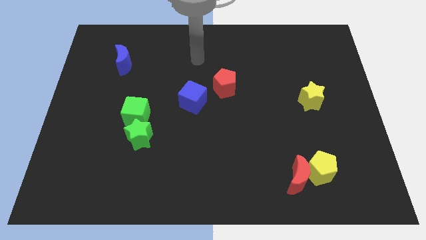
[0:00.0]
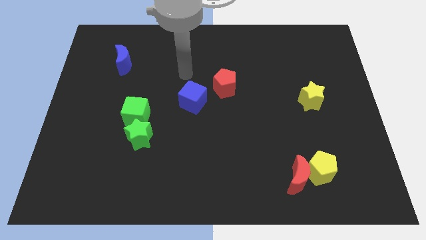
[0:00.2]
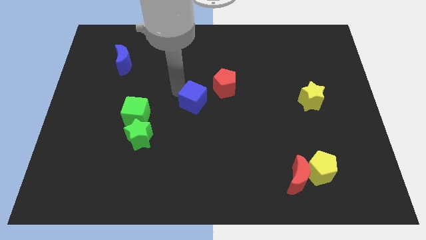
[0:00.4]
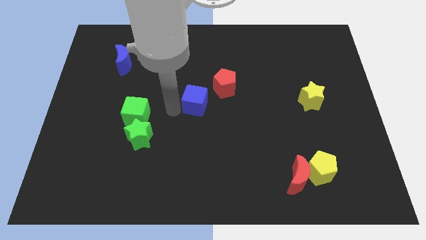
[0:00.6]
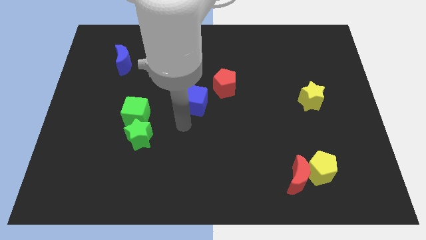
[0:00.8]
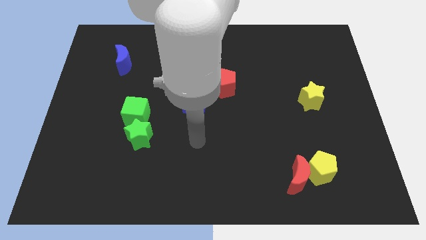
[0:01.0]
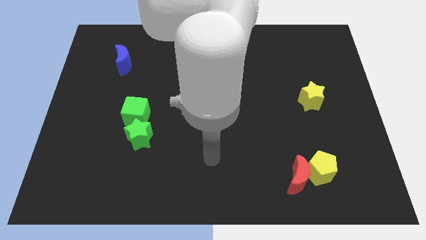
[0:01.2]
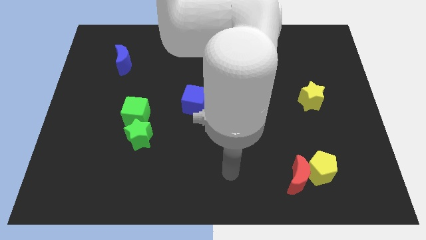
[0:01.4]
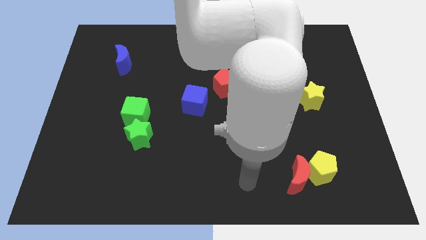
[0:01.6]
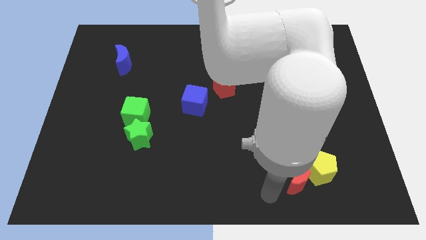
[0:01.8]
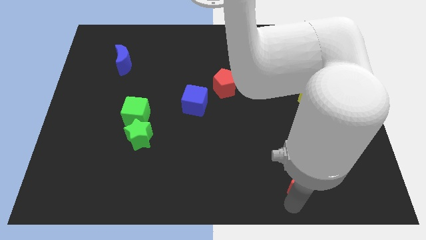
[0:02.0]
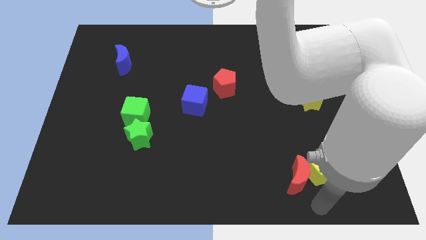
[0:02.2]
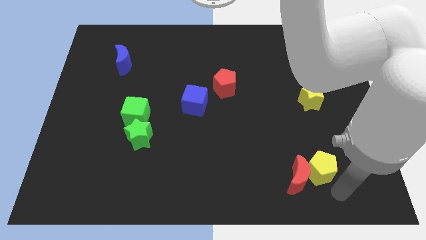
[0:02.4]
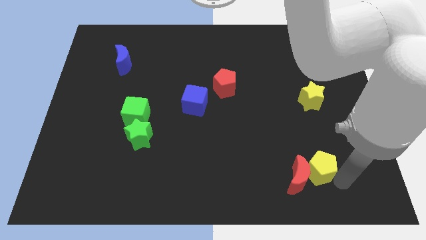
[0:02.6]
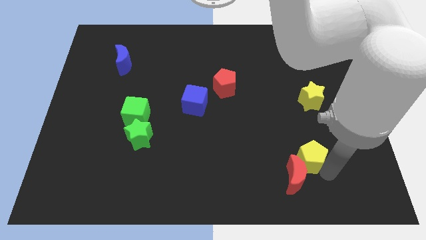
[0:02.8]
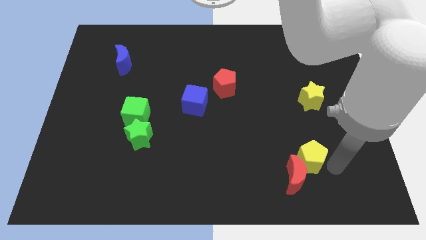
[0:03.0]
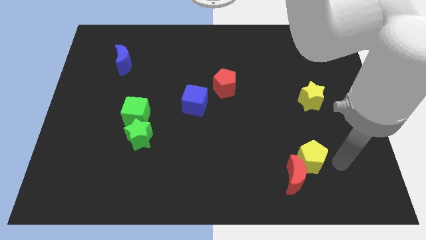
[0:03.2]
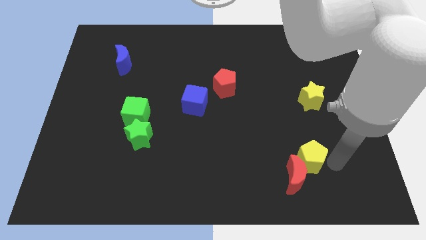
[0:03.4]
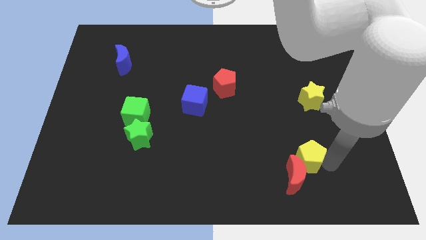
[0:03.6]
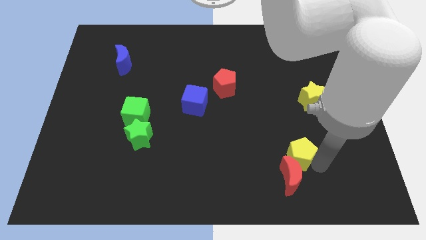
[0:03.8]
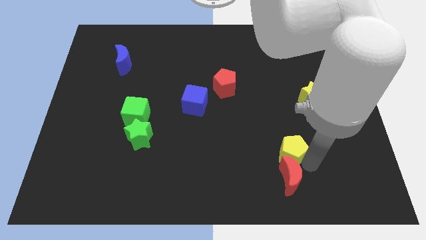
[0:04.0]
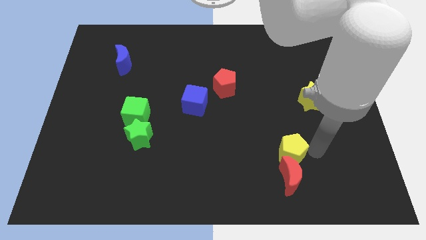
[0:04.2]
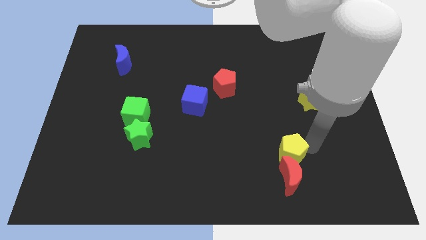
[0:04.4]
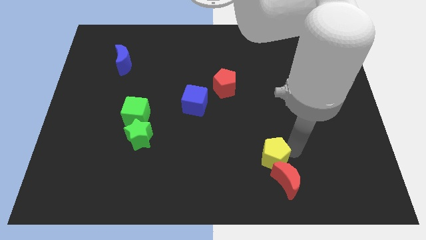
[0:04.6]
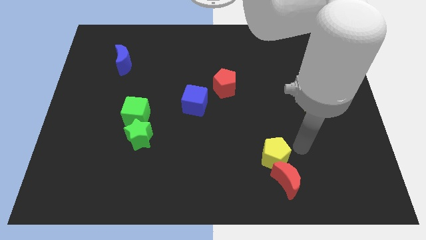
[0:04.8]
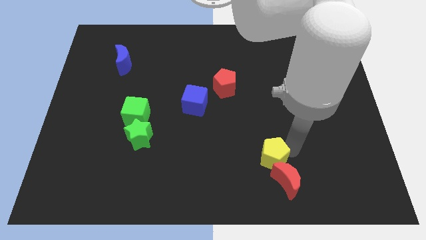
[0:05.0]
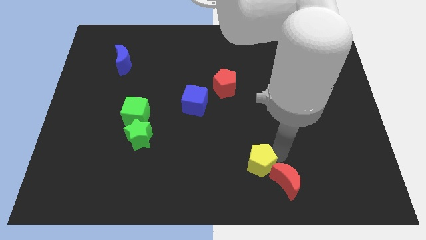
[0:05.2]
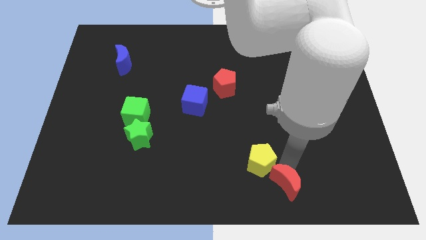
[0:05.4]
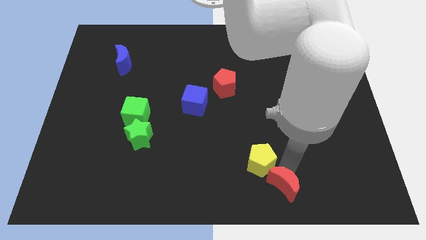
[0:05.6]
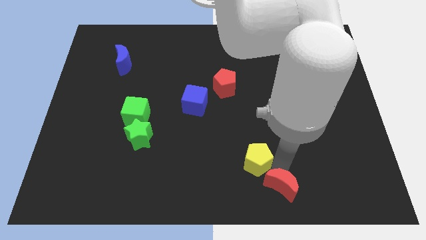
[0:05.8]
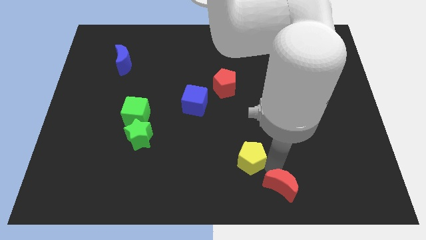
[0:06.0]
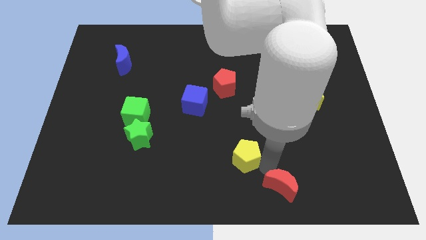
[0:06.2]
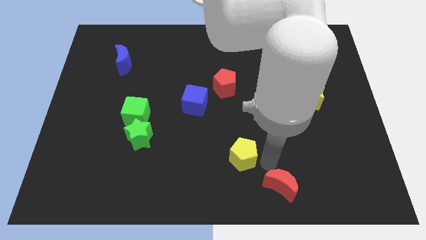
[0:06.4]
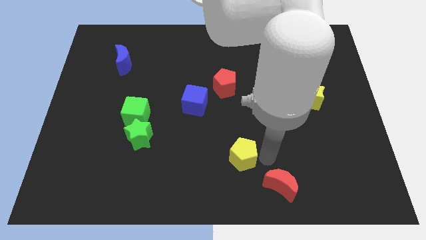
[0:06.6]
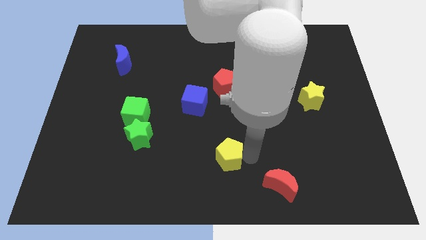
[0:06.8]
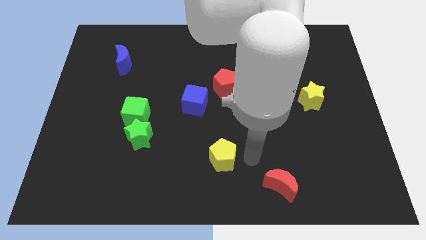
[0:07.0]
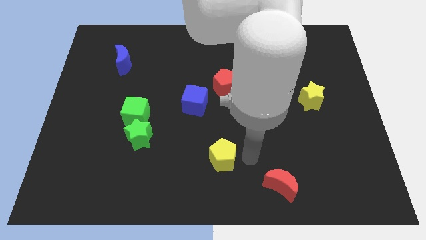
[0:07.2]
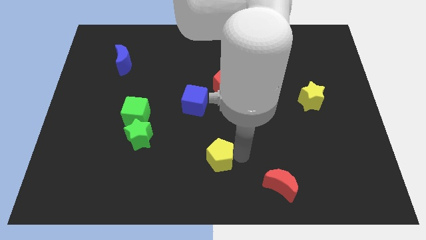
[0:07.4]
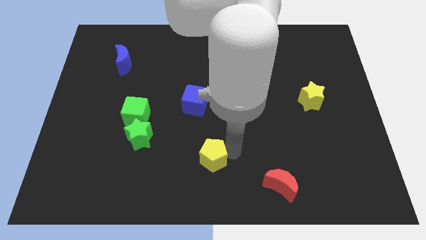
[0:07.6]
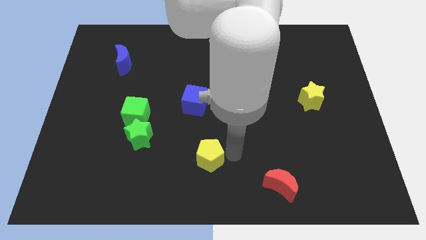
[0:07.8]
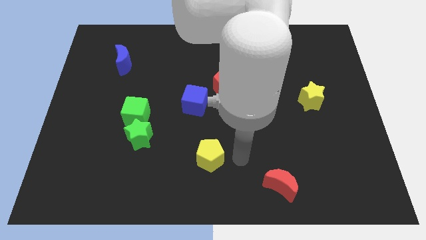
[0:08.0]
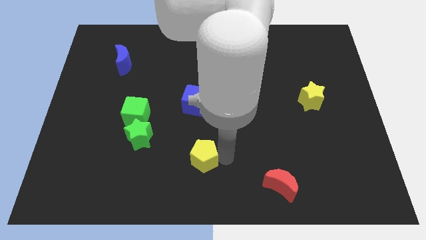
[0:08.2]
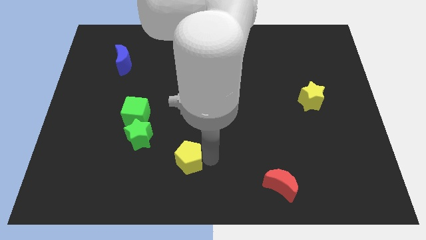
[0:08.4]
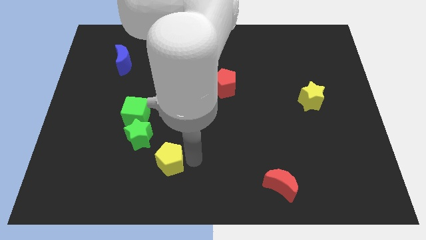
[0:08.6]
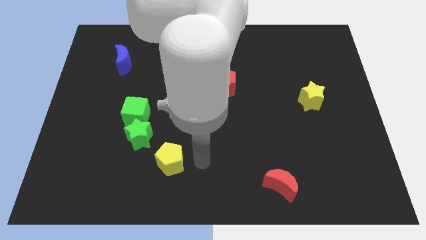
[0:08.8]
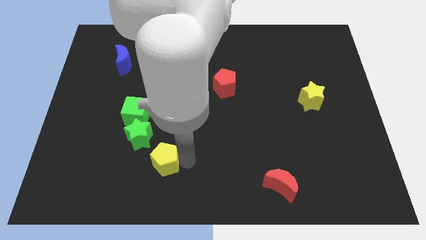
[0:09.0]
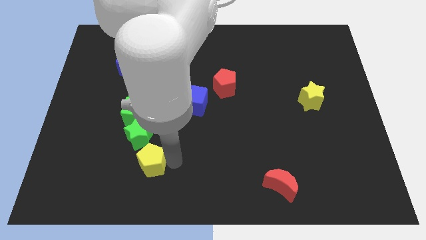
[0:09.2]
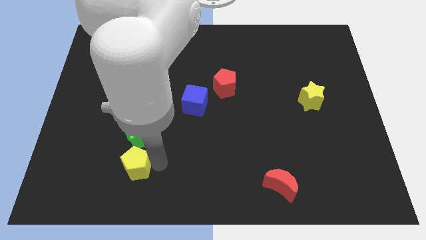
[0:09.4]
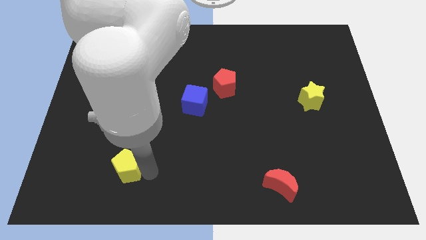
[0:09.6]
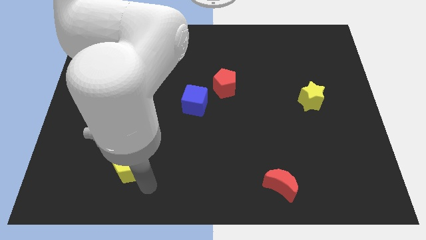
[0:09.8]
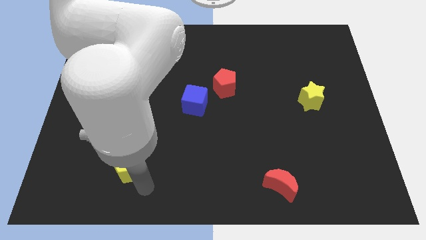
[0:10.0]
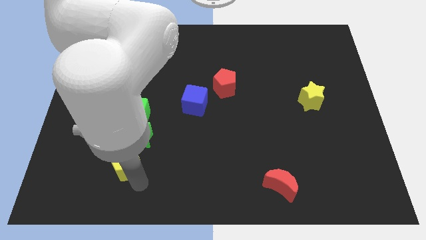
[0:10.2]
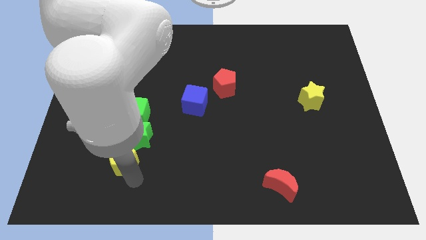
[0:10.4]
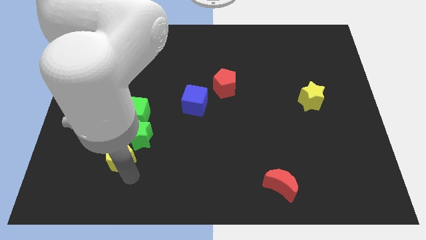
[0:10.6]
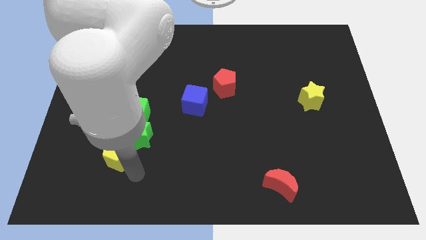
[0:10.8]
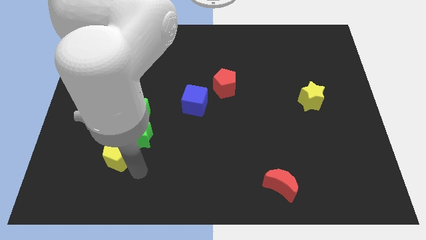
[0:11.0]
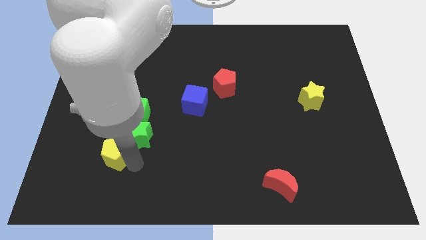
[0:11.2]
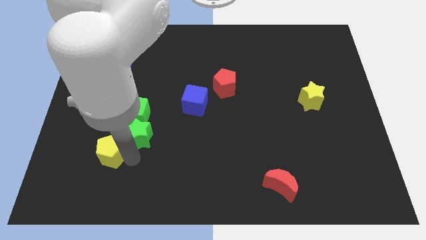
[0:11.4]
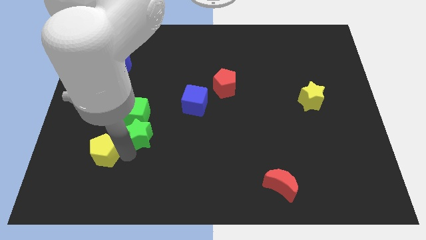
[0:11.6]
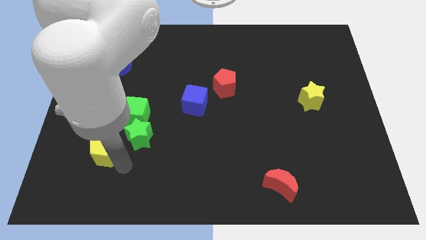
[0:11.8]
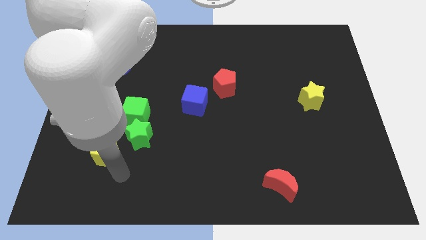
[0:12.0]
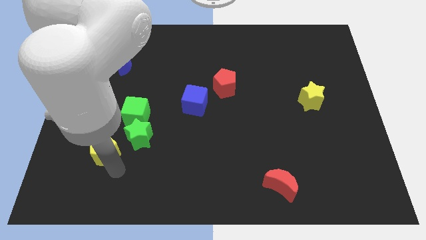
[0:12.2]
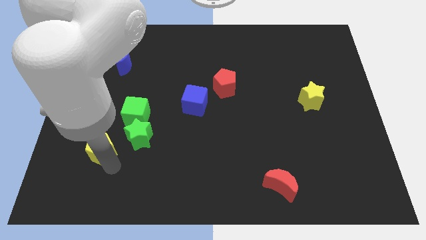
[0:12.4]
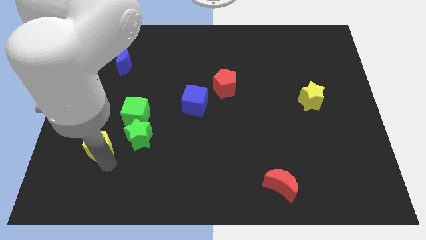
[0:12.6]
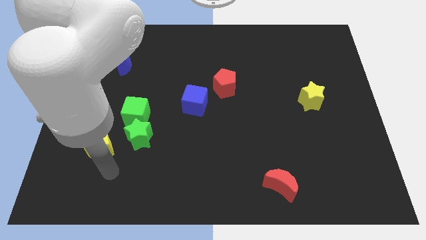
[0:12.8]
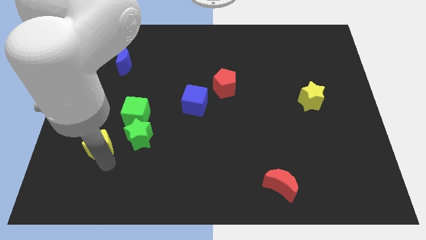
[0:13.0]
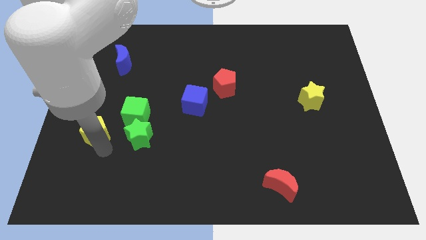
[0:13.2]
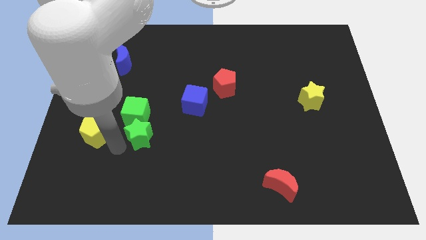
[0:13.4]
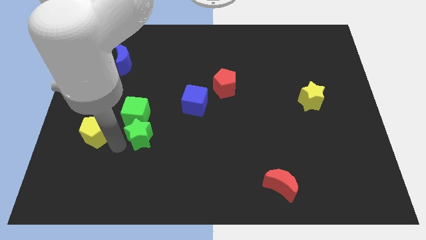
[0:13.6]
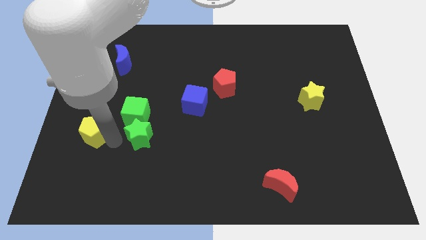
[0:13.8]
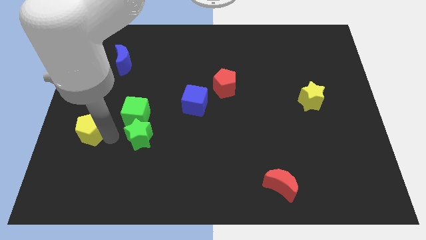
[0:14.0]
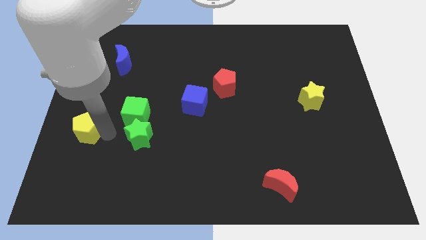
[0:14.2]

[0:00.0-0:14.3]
push the yellow pentagon to the left side of the board
